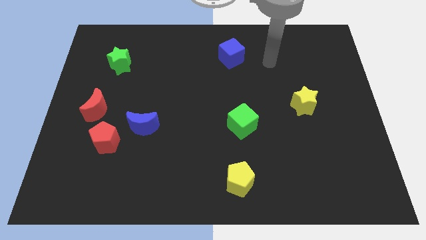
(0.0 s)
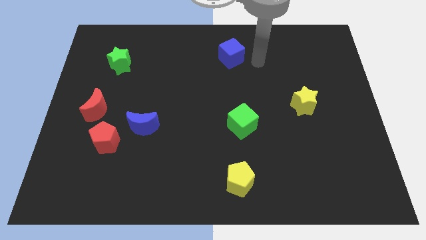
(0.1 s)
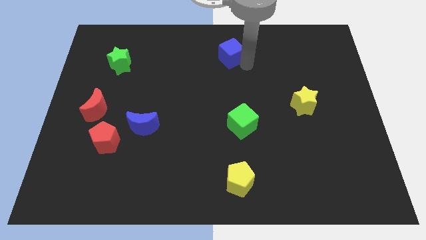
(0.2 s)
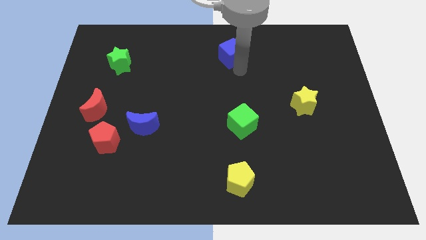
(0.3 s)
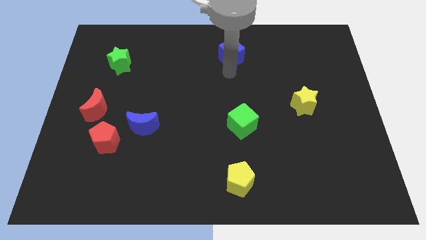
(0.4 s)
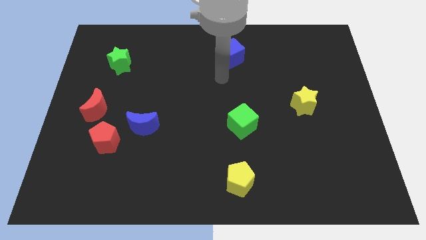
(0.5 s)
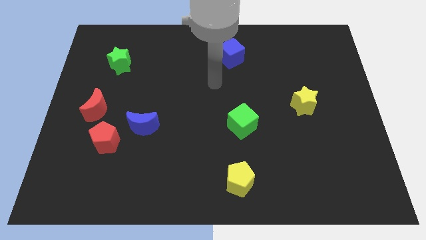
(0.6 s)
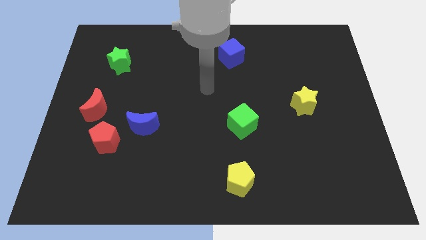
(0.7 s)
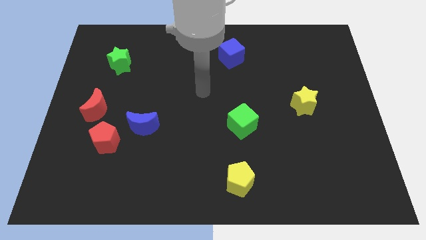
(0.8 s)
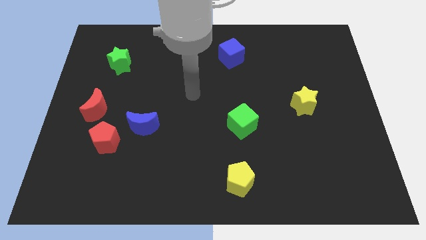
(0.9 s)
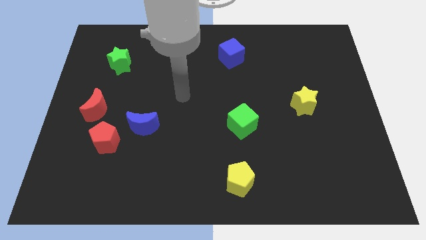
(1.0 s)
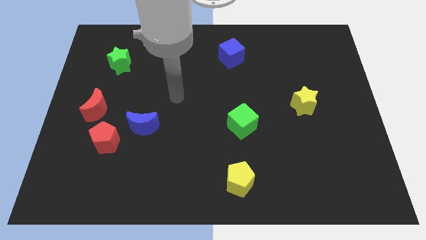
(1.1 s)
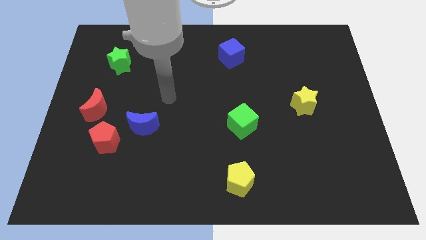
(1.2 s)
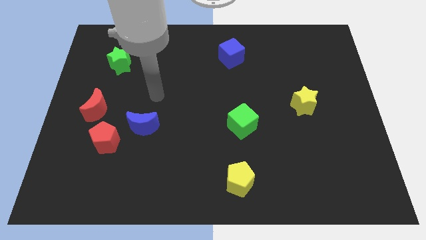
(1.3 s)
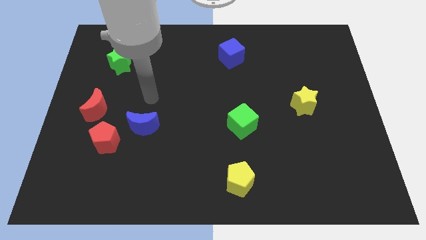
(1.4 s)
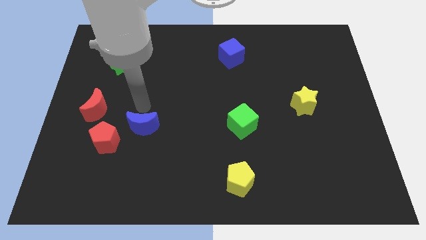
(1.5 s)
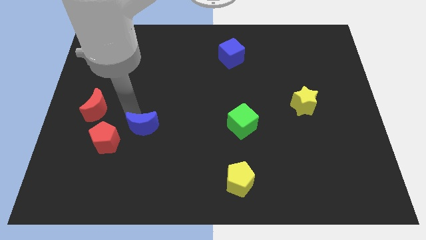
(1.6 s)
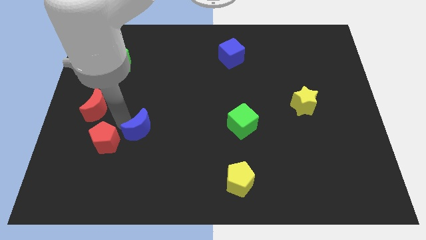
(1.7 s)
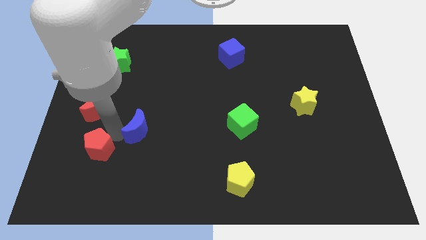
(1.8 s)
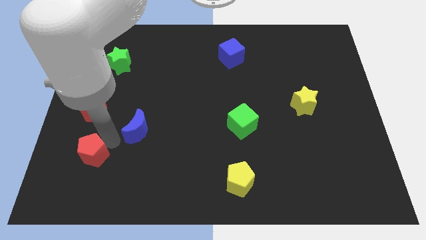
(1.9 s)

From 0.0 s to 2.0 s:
pull the blue moon apart from the red pentagon

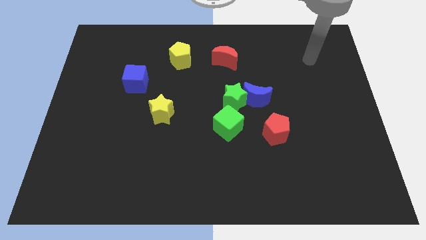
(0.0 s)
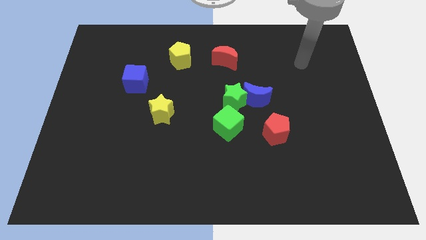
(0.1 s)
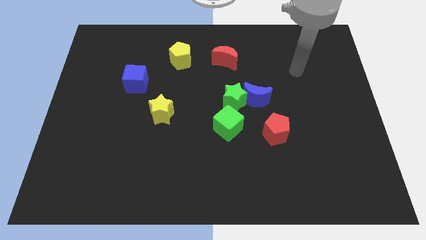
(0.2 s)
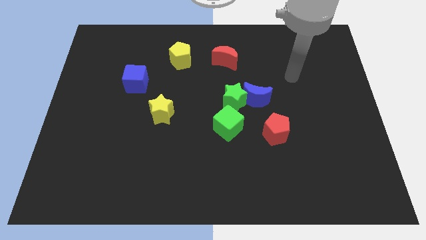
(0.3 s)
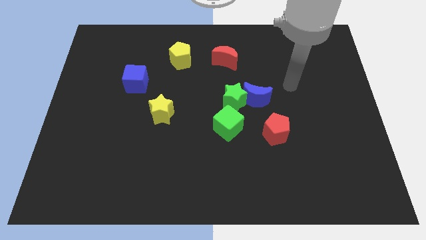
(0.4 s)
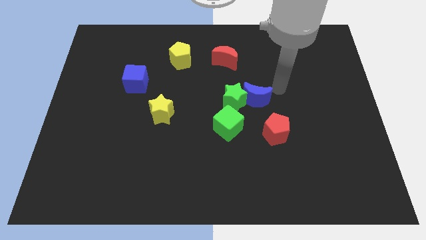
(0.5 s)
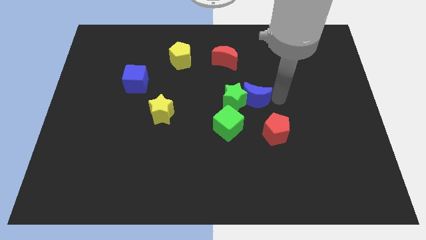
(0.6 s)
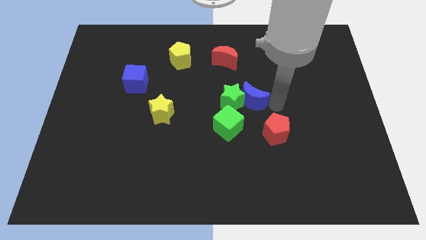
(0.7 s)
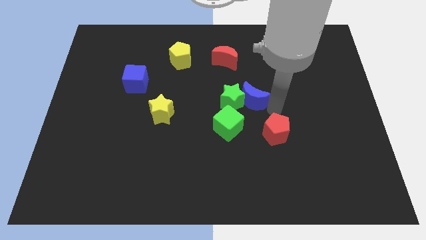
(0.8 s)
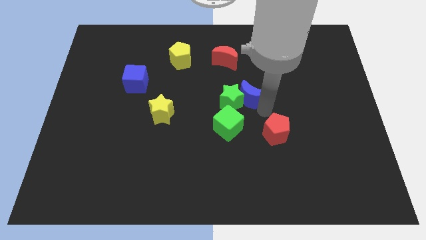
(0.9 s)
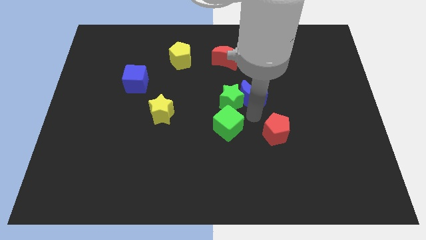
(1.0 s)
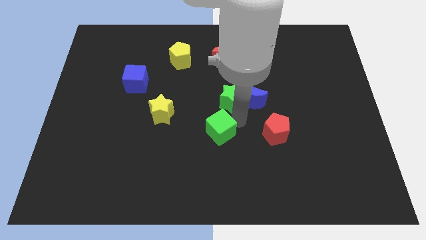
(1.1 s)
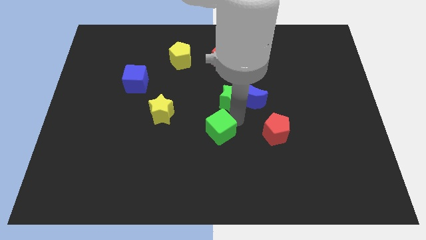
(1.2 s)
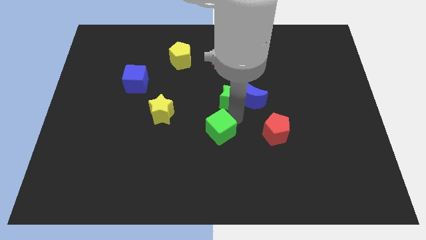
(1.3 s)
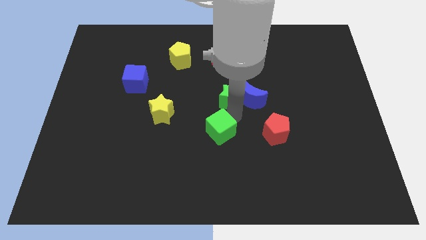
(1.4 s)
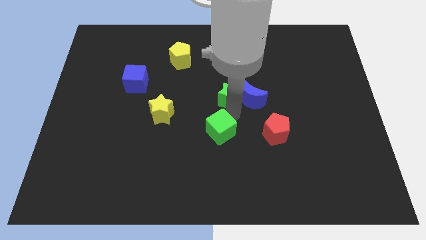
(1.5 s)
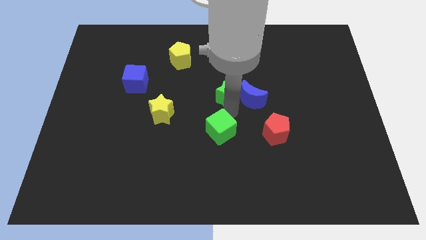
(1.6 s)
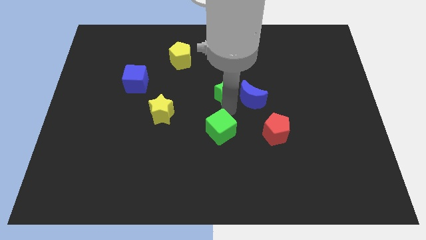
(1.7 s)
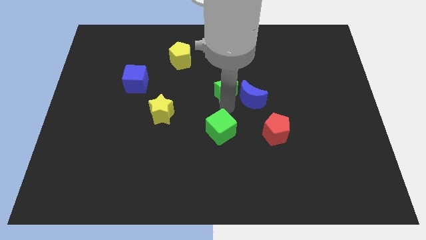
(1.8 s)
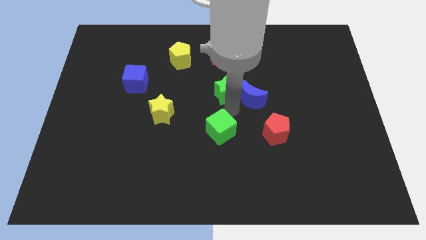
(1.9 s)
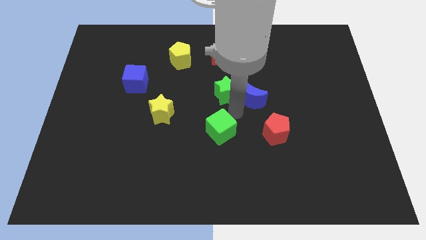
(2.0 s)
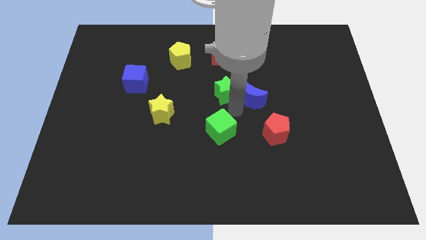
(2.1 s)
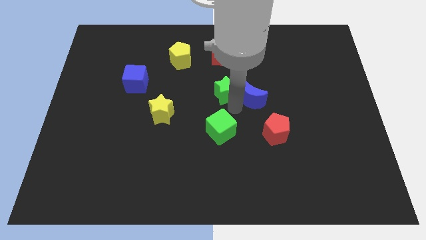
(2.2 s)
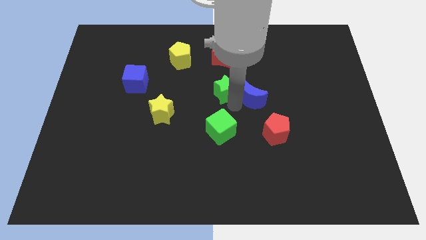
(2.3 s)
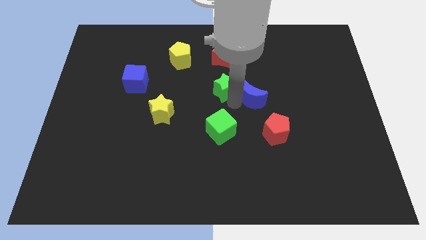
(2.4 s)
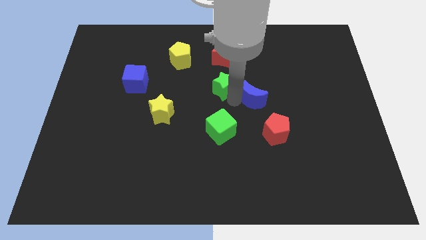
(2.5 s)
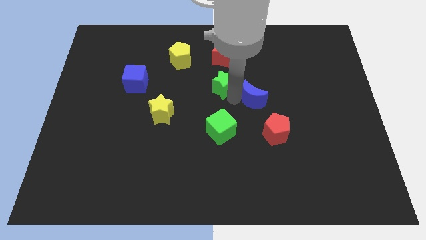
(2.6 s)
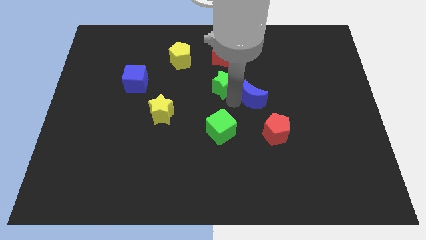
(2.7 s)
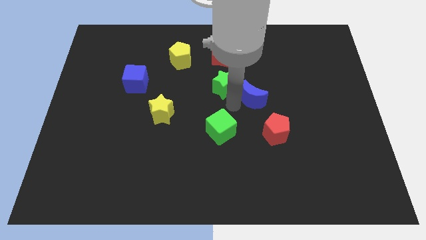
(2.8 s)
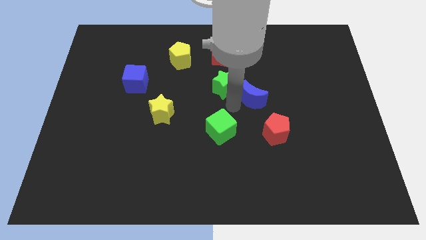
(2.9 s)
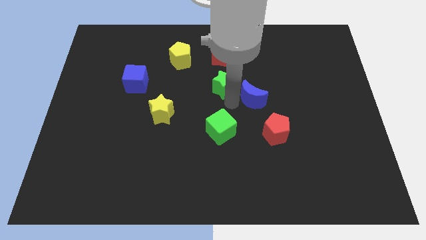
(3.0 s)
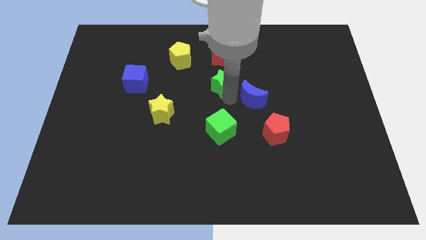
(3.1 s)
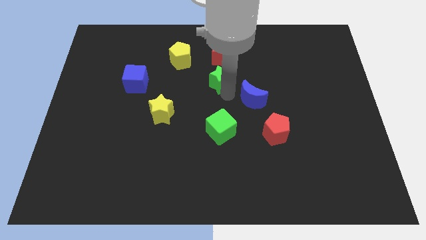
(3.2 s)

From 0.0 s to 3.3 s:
separate the green star from the blue moon and green cube

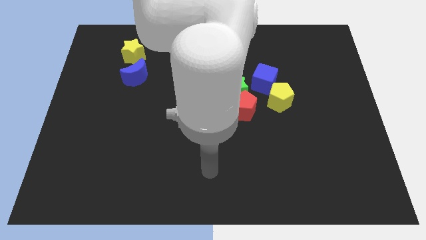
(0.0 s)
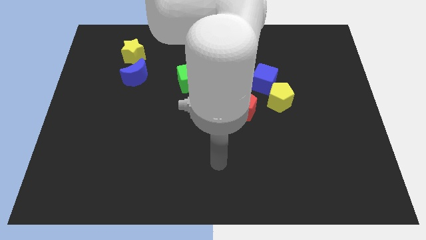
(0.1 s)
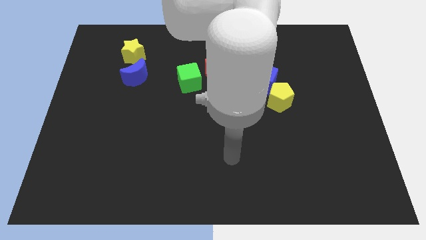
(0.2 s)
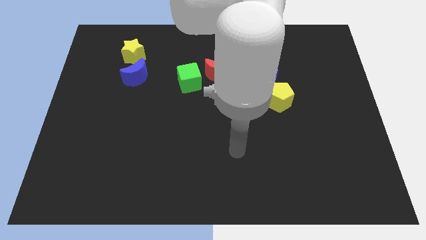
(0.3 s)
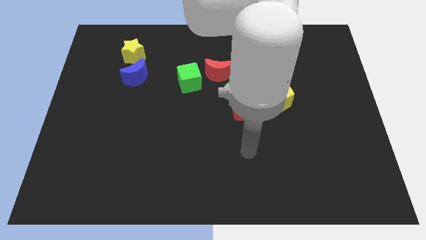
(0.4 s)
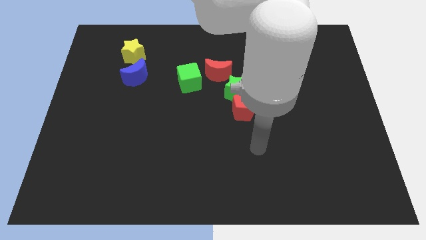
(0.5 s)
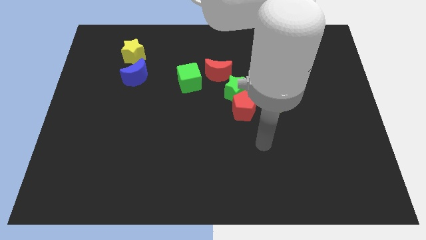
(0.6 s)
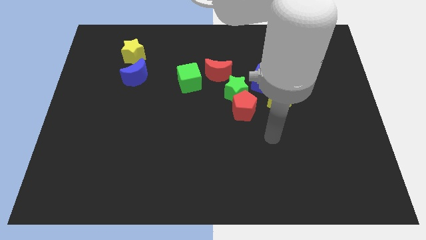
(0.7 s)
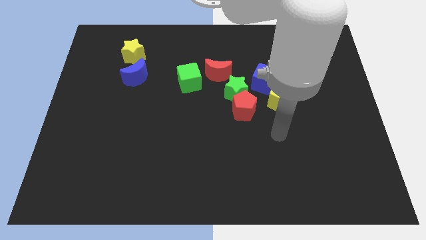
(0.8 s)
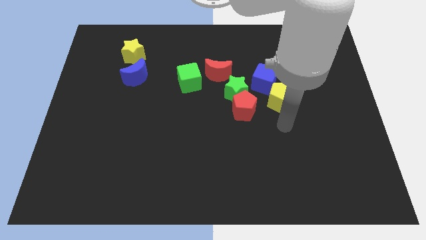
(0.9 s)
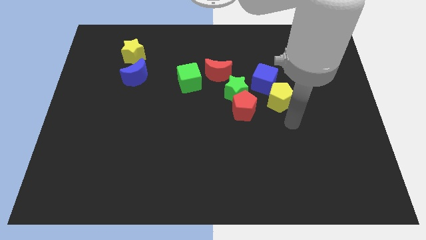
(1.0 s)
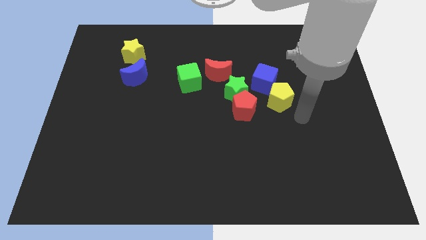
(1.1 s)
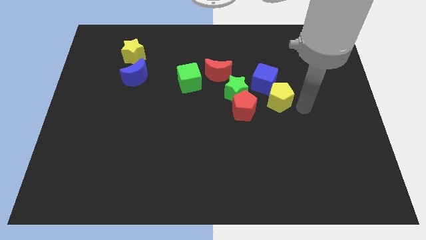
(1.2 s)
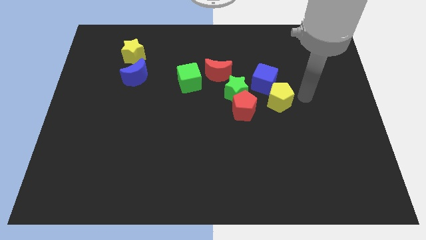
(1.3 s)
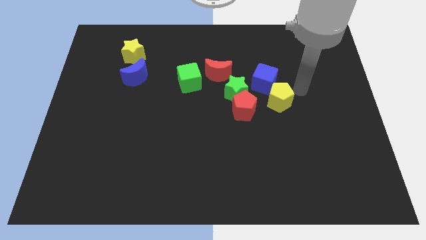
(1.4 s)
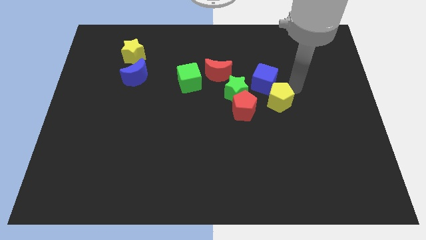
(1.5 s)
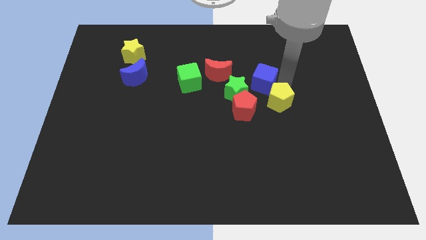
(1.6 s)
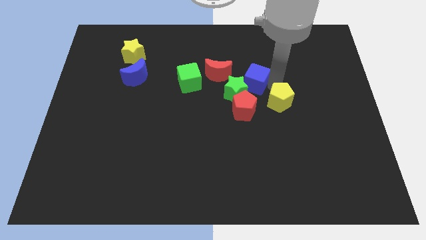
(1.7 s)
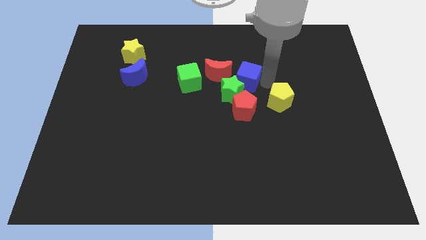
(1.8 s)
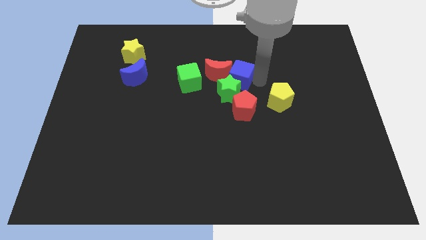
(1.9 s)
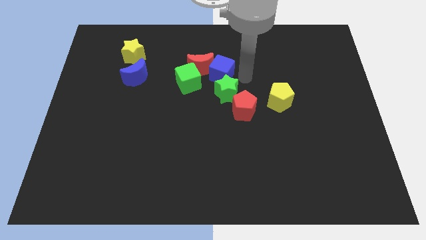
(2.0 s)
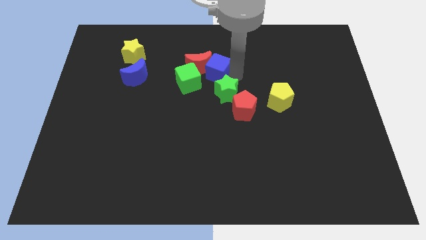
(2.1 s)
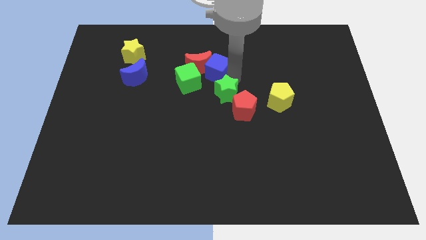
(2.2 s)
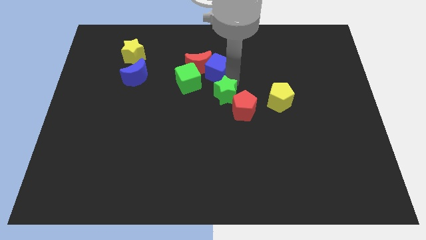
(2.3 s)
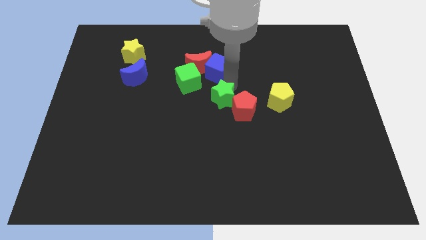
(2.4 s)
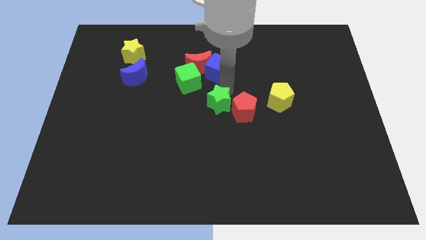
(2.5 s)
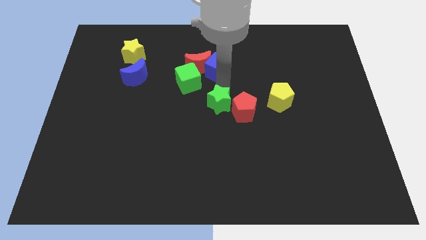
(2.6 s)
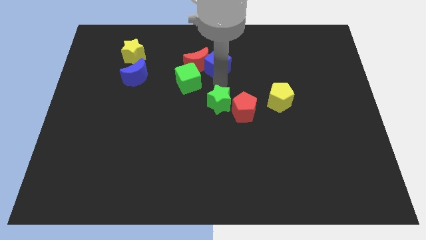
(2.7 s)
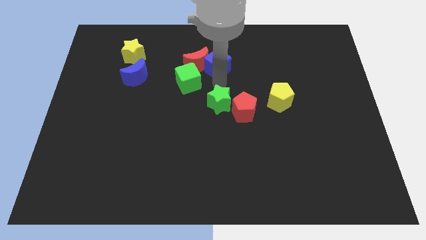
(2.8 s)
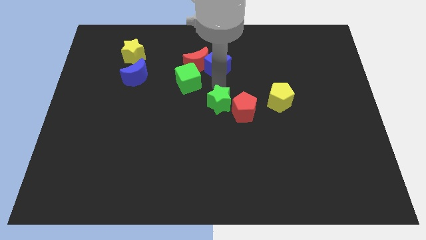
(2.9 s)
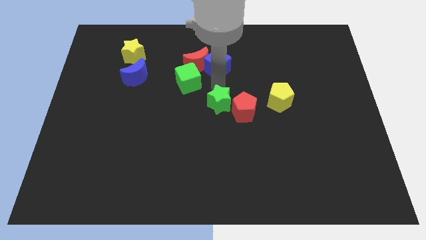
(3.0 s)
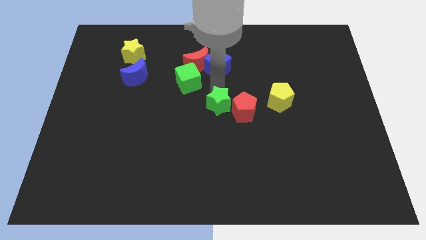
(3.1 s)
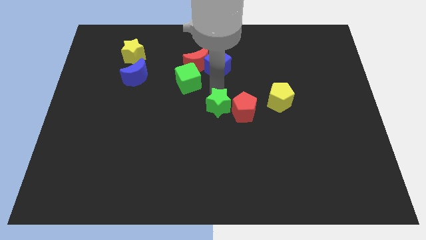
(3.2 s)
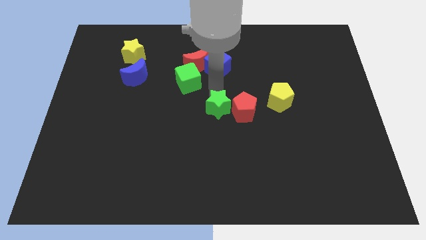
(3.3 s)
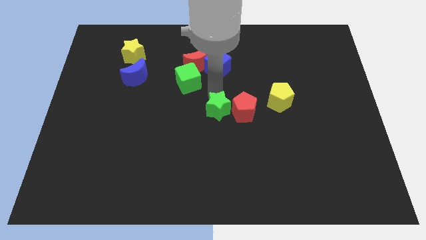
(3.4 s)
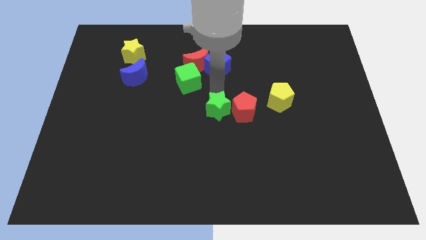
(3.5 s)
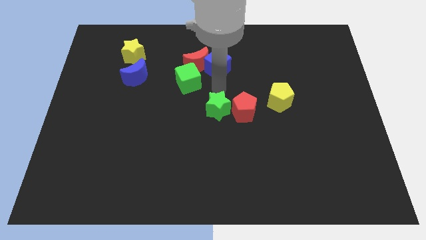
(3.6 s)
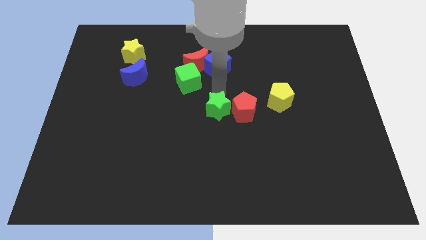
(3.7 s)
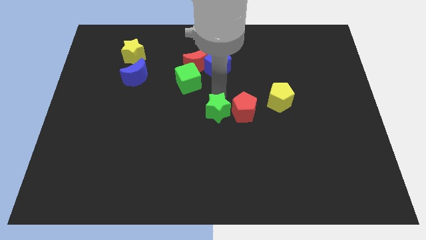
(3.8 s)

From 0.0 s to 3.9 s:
move the green star away from the group

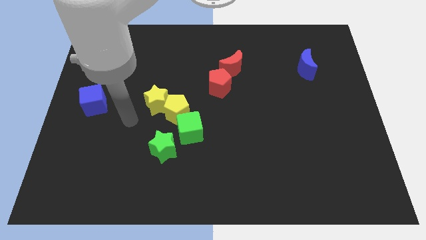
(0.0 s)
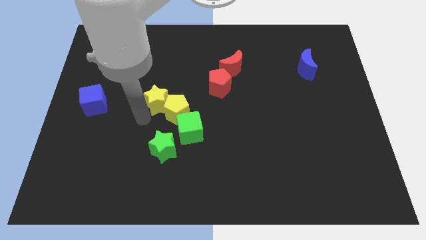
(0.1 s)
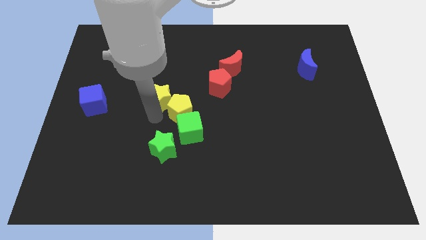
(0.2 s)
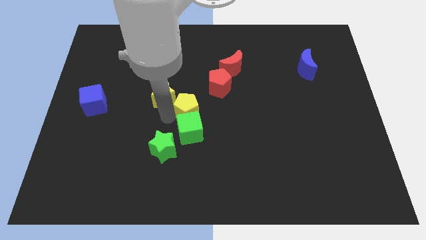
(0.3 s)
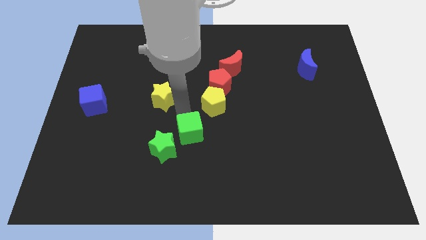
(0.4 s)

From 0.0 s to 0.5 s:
move the yellow star away from the yellow pentagon
